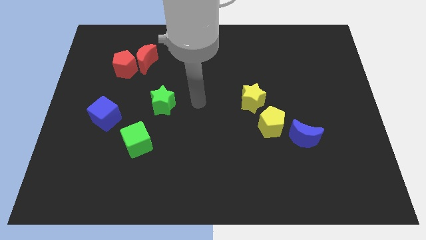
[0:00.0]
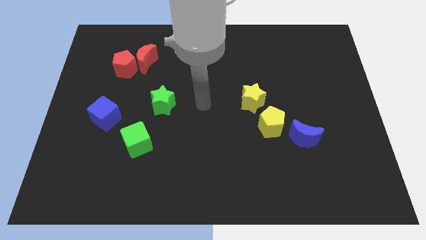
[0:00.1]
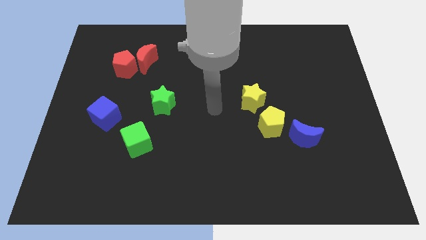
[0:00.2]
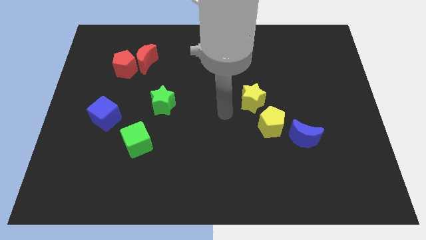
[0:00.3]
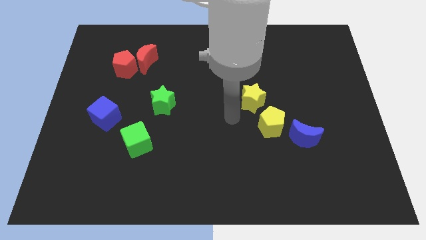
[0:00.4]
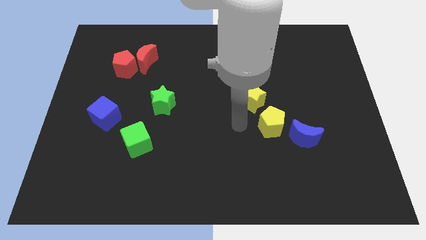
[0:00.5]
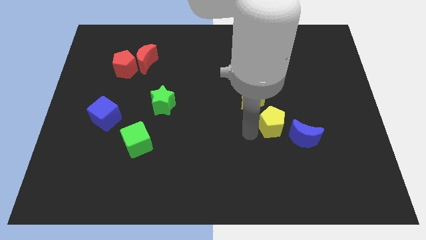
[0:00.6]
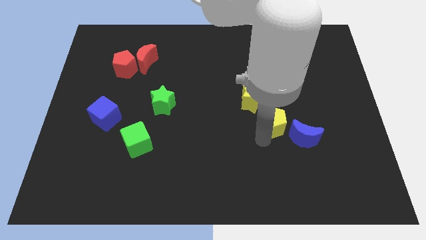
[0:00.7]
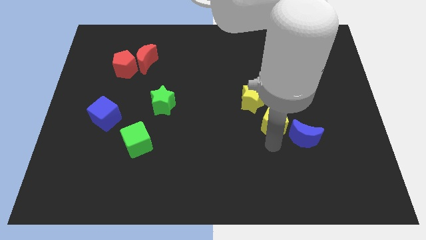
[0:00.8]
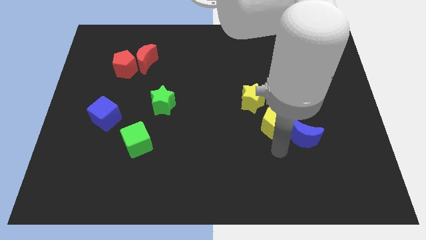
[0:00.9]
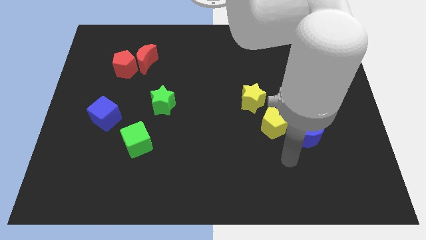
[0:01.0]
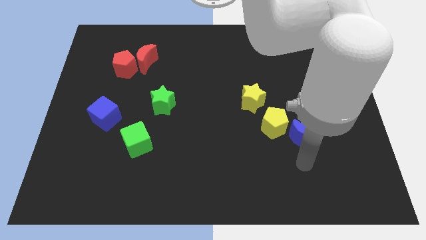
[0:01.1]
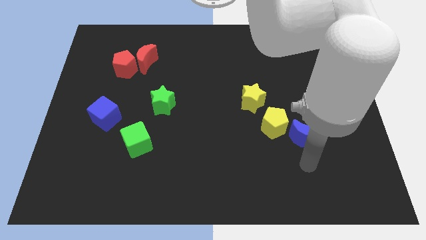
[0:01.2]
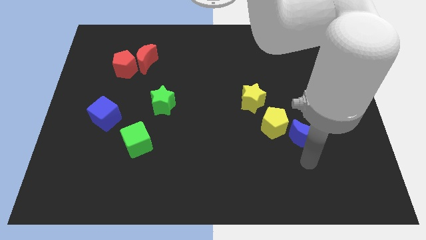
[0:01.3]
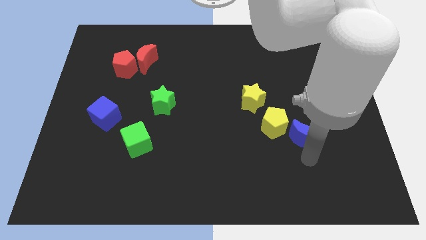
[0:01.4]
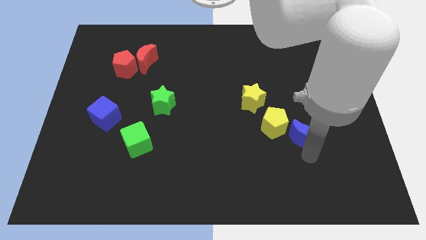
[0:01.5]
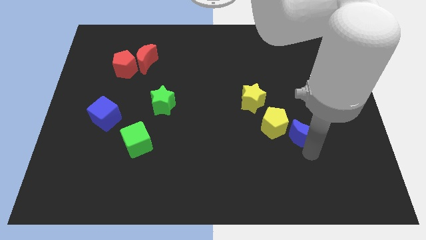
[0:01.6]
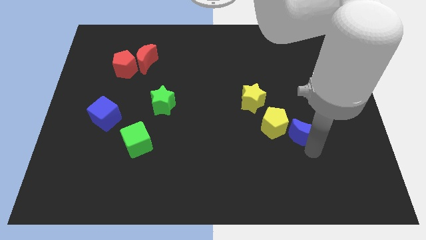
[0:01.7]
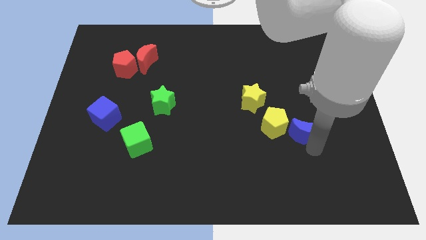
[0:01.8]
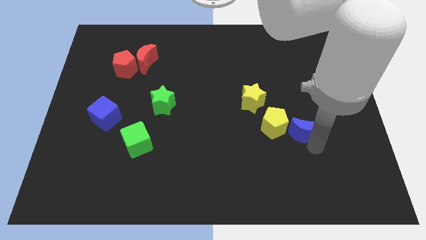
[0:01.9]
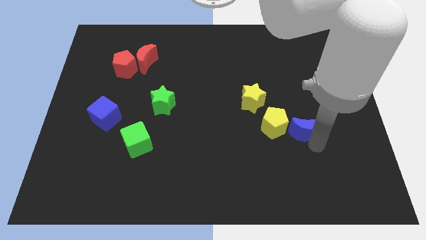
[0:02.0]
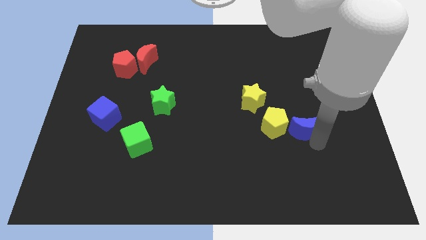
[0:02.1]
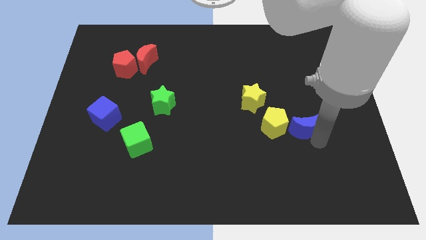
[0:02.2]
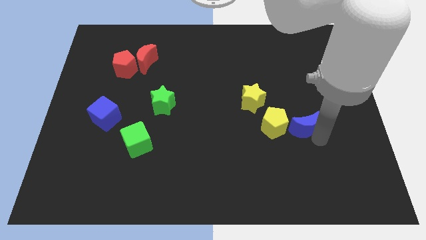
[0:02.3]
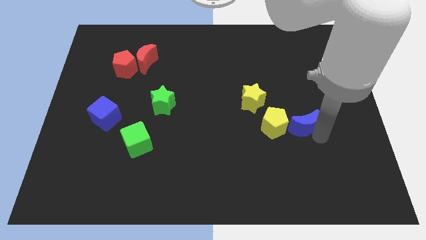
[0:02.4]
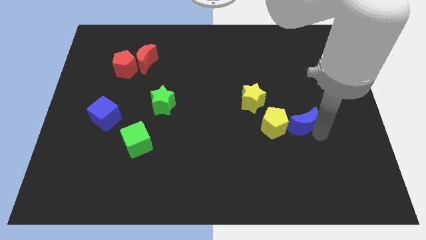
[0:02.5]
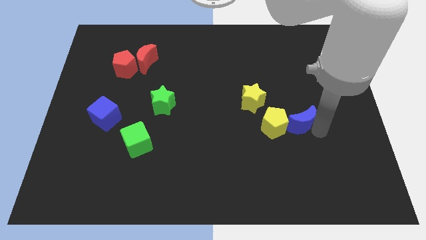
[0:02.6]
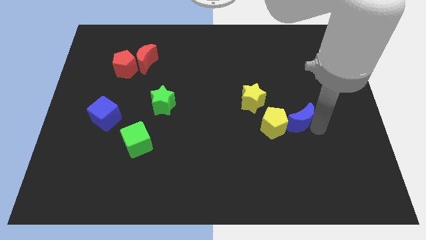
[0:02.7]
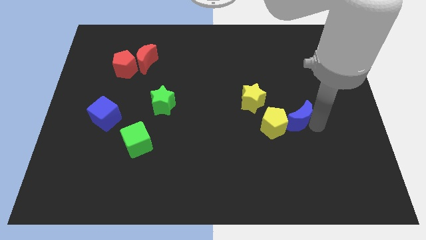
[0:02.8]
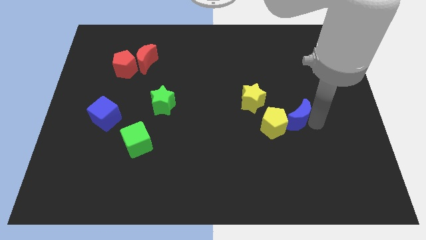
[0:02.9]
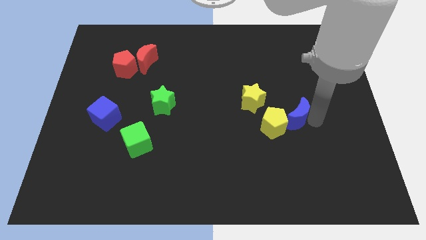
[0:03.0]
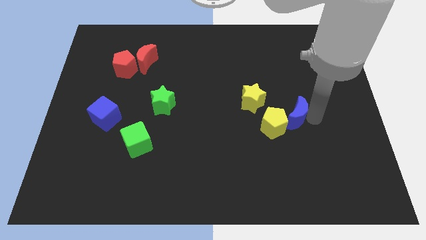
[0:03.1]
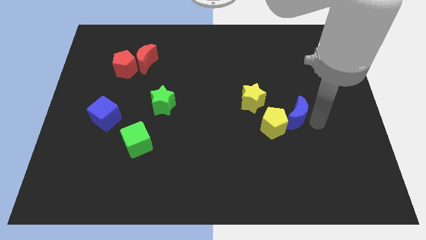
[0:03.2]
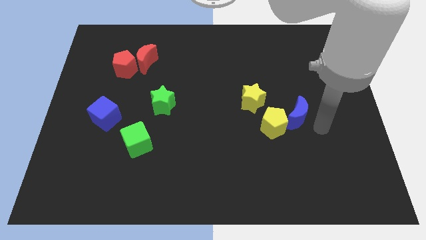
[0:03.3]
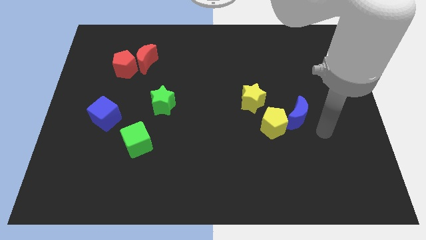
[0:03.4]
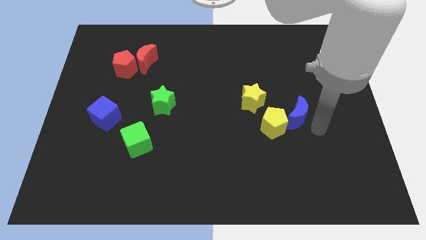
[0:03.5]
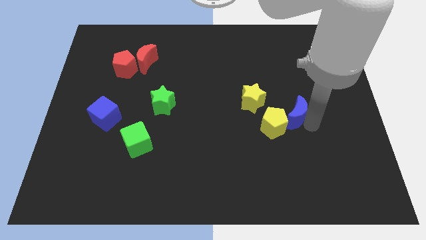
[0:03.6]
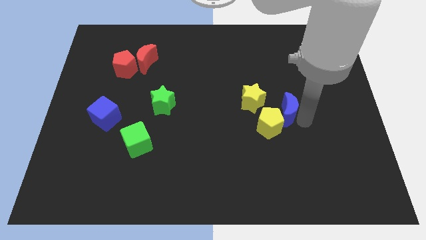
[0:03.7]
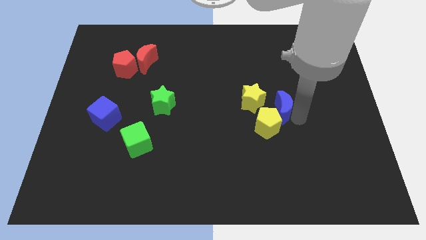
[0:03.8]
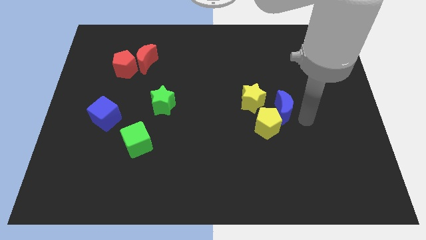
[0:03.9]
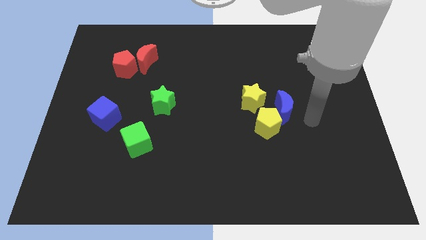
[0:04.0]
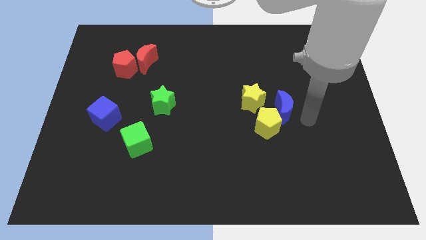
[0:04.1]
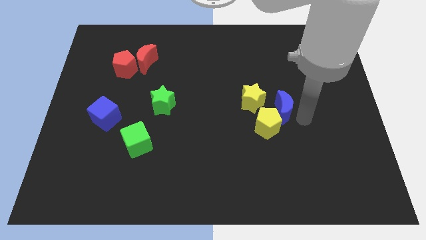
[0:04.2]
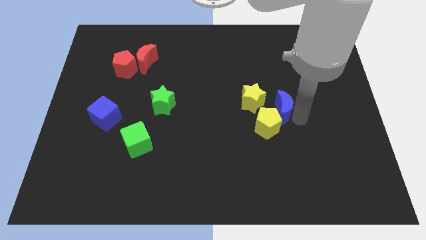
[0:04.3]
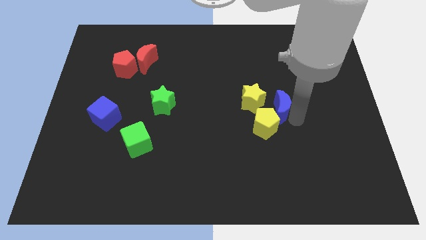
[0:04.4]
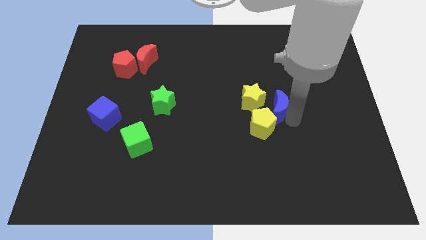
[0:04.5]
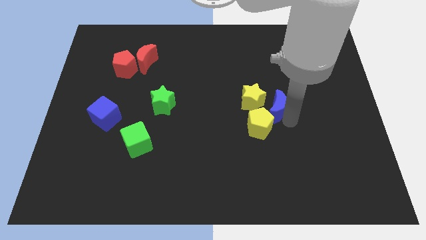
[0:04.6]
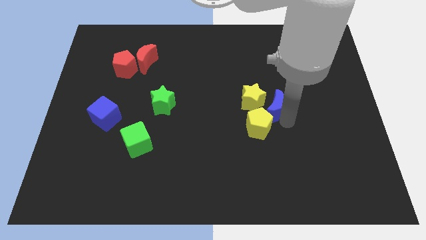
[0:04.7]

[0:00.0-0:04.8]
slide the blue moon towards the yellow star

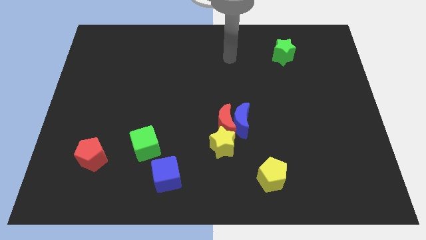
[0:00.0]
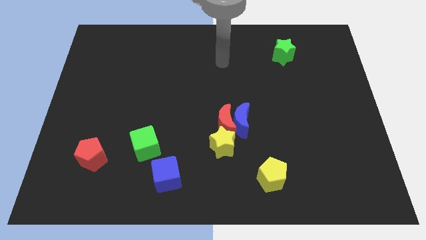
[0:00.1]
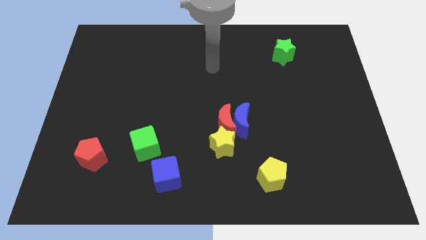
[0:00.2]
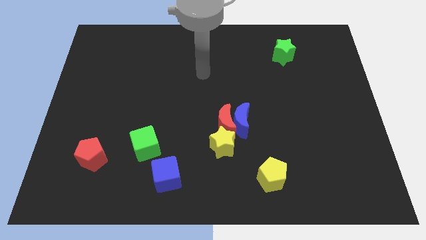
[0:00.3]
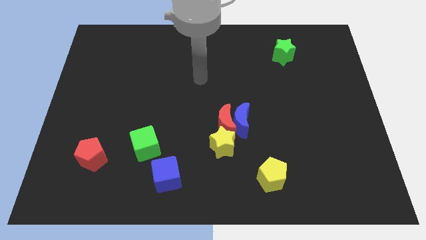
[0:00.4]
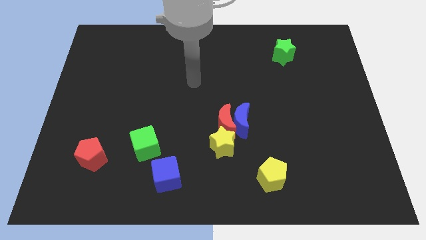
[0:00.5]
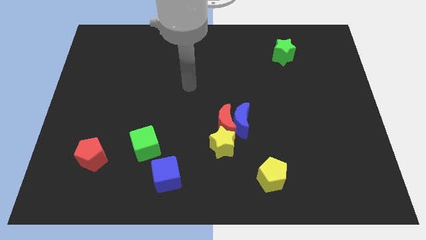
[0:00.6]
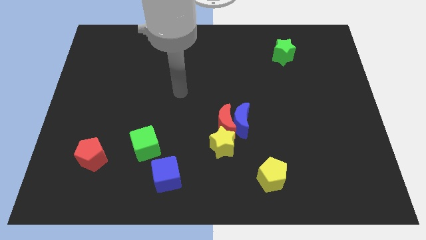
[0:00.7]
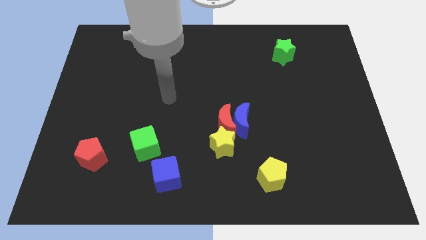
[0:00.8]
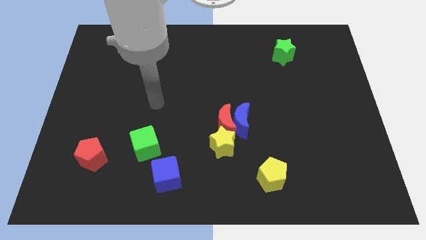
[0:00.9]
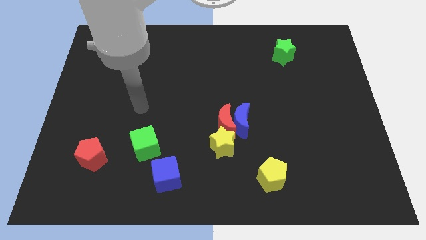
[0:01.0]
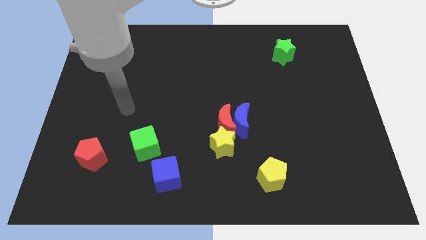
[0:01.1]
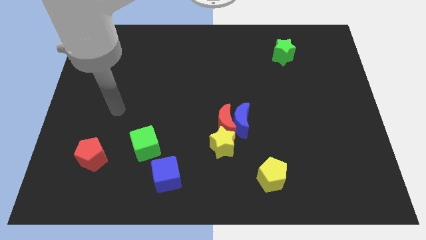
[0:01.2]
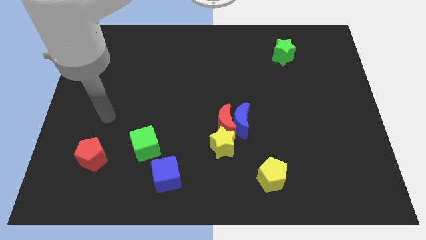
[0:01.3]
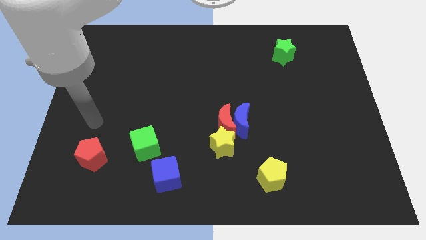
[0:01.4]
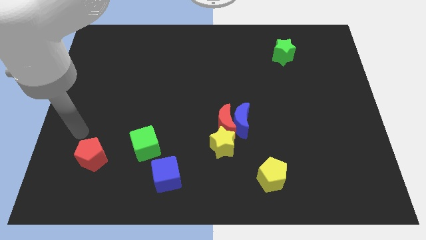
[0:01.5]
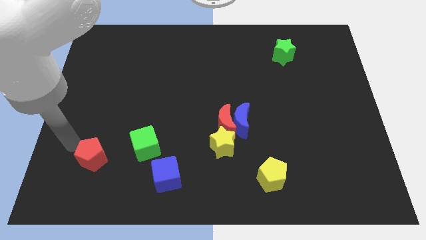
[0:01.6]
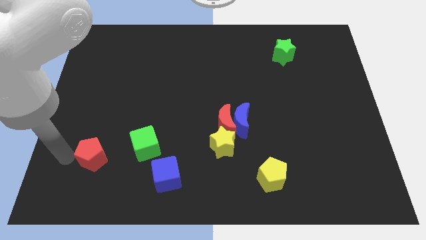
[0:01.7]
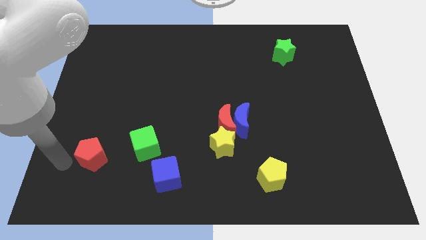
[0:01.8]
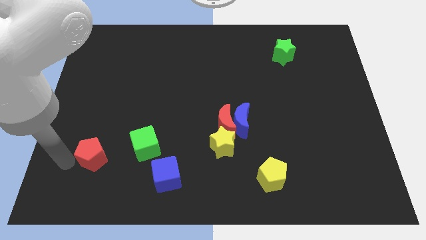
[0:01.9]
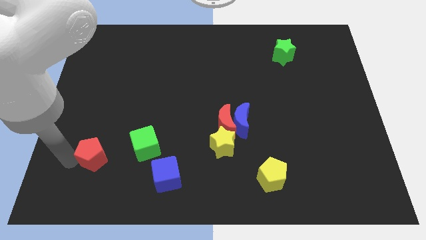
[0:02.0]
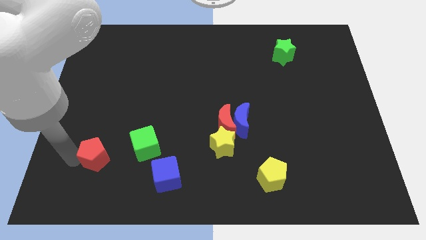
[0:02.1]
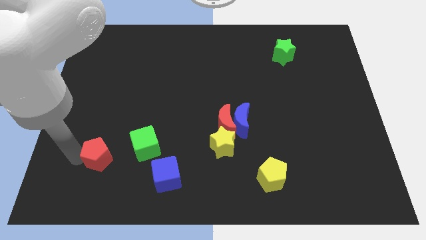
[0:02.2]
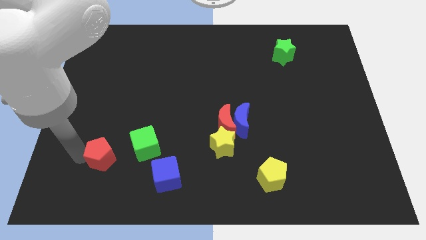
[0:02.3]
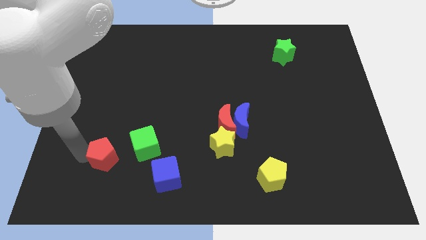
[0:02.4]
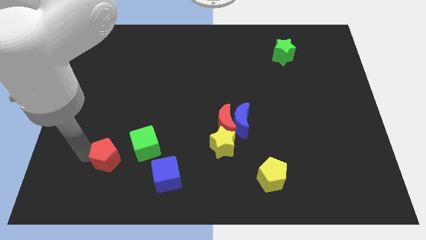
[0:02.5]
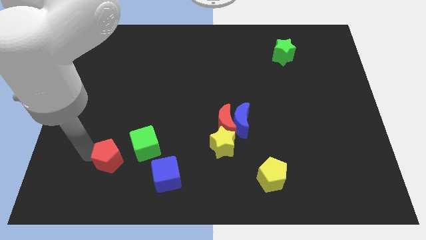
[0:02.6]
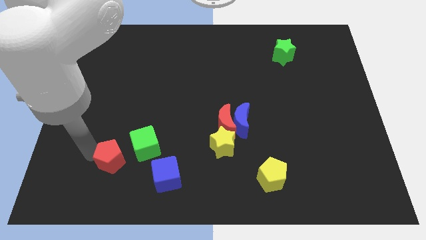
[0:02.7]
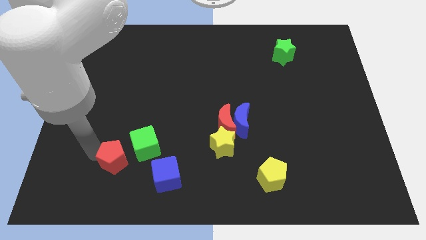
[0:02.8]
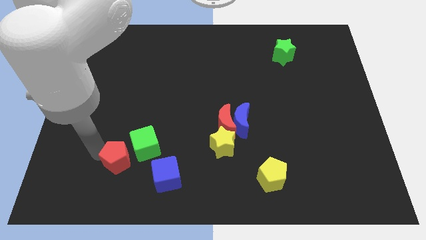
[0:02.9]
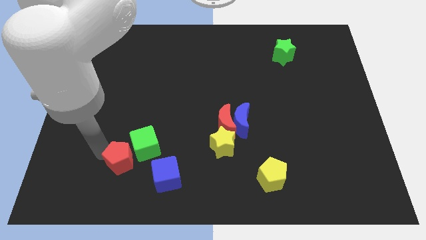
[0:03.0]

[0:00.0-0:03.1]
push the red pentagon towards the green cube

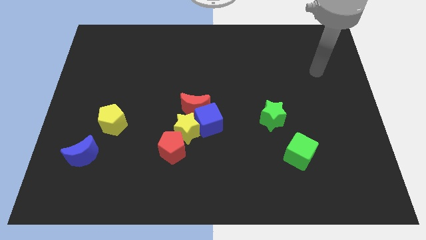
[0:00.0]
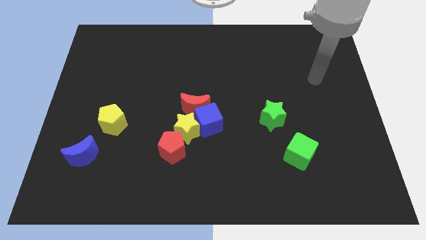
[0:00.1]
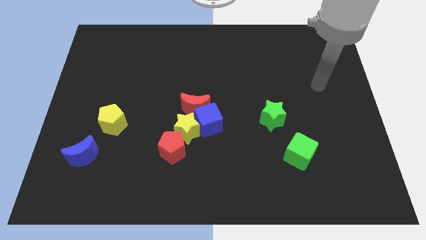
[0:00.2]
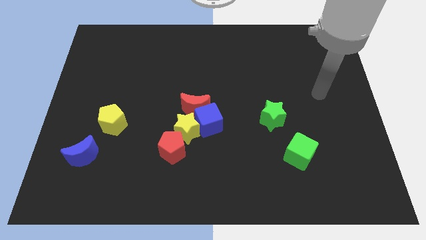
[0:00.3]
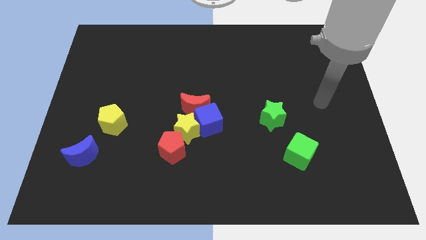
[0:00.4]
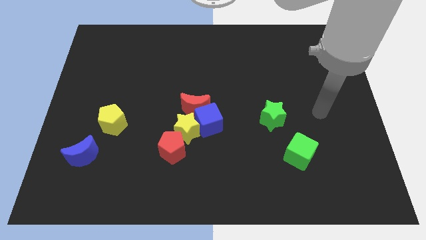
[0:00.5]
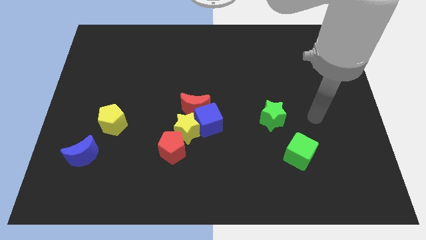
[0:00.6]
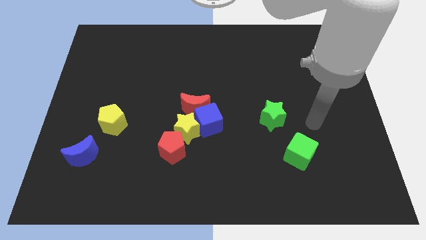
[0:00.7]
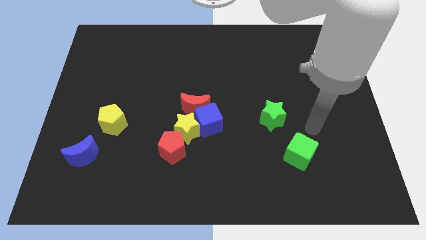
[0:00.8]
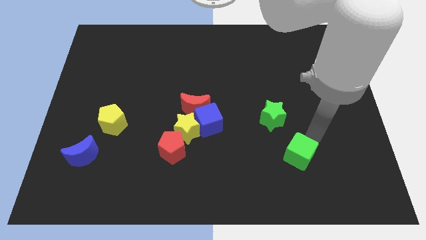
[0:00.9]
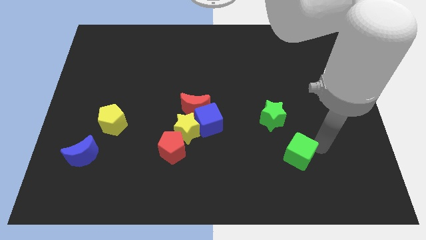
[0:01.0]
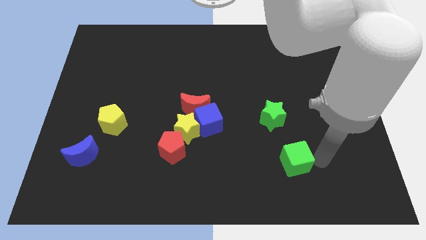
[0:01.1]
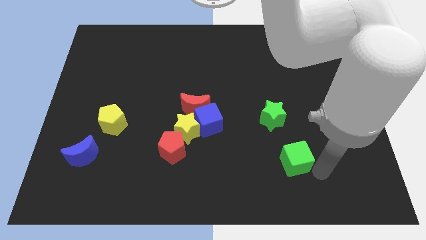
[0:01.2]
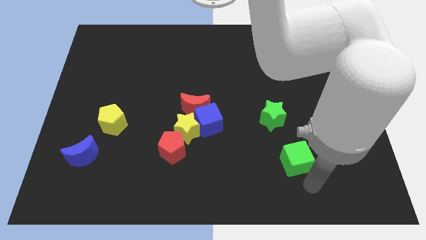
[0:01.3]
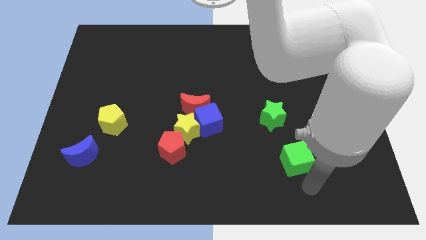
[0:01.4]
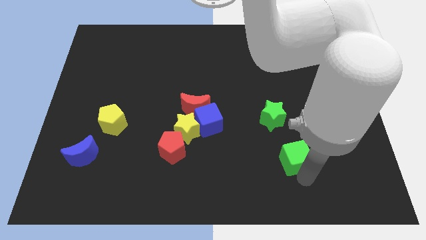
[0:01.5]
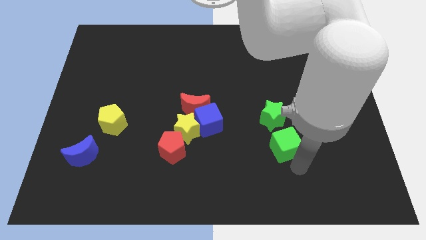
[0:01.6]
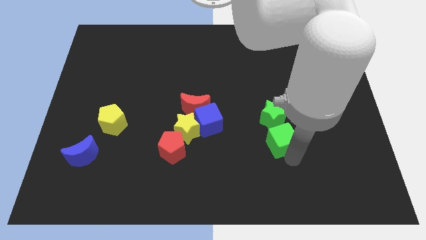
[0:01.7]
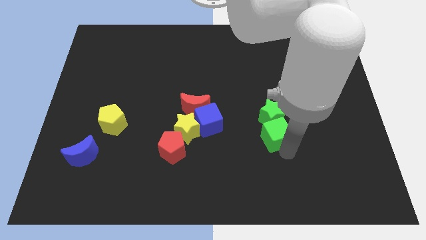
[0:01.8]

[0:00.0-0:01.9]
put the green cube close to the green star
